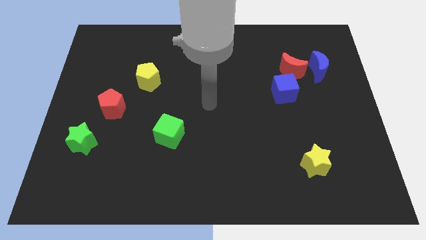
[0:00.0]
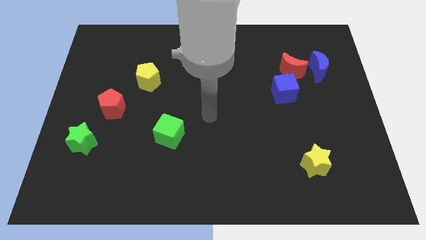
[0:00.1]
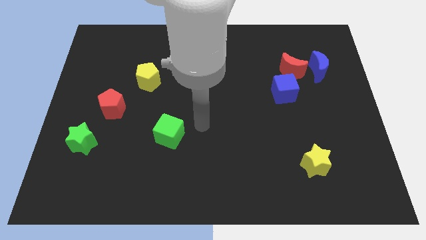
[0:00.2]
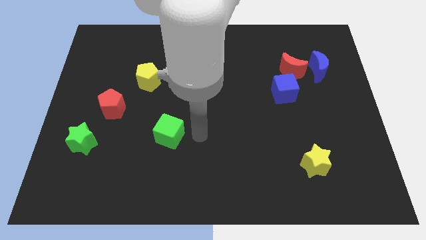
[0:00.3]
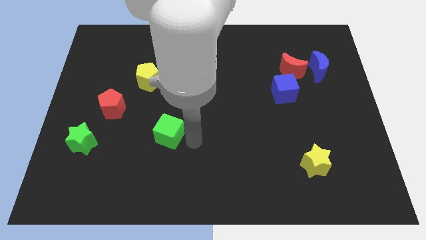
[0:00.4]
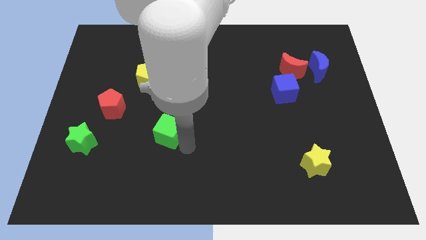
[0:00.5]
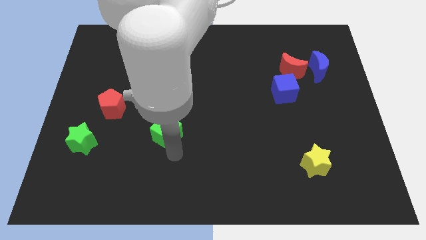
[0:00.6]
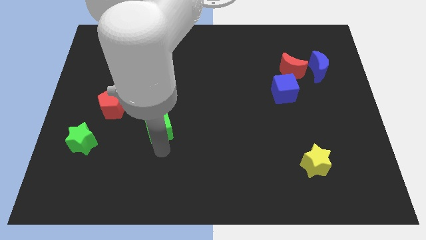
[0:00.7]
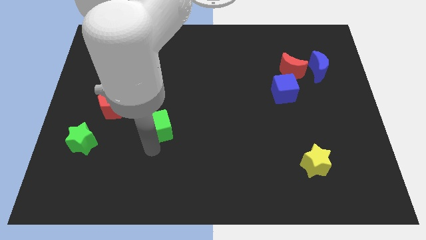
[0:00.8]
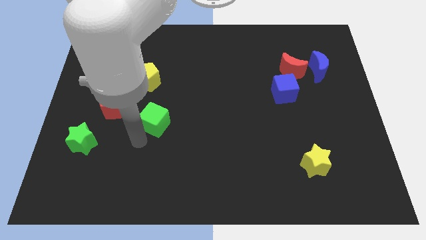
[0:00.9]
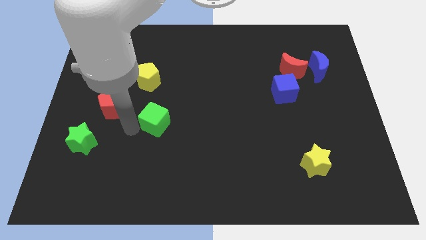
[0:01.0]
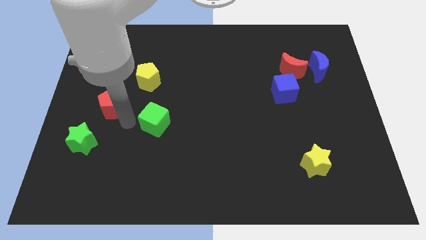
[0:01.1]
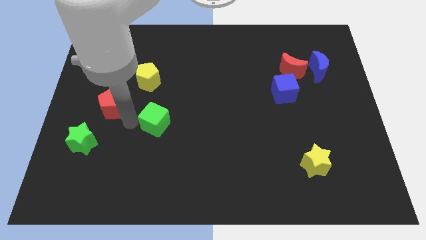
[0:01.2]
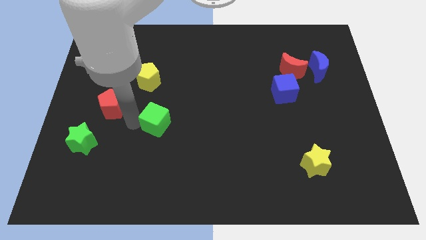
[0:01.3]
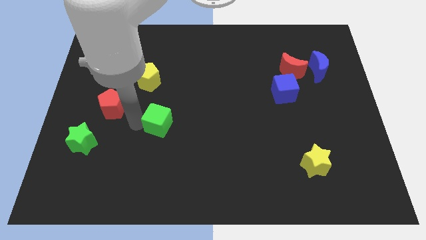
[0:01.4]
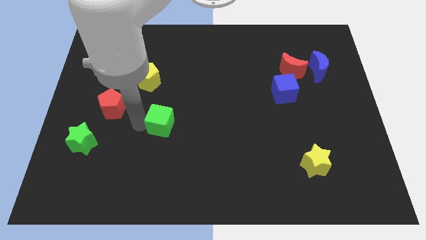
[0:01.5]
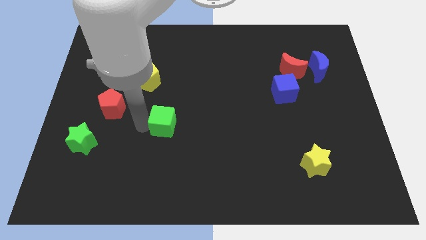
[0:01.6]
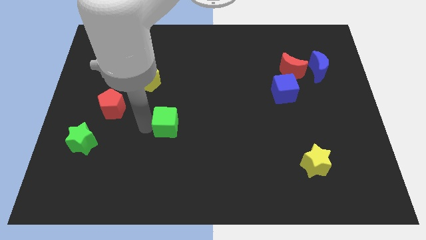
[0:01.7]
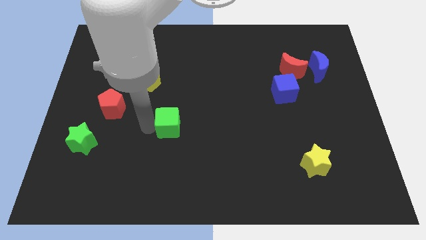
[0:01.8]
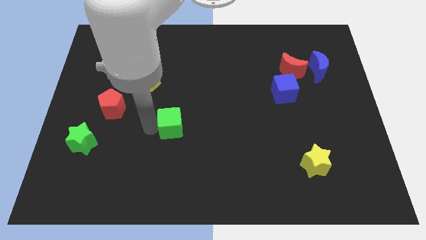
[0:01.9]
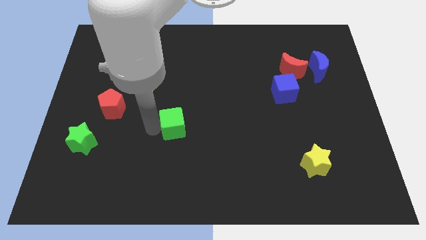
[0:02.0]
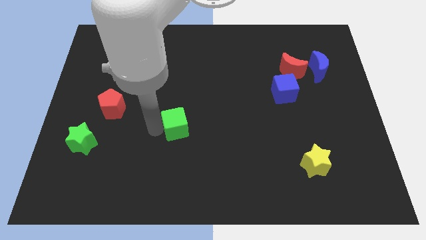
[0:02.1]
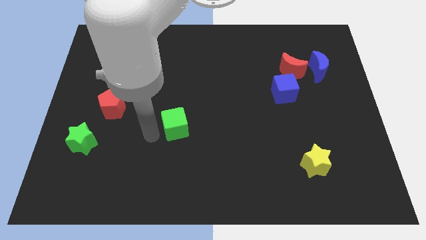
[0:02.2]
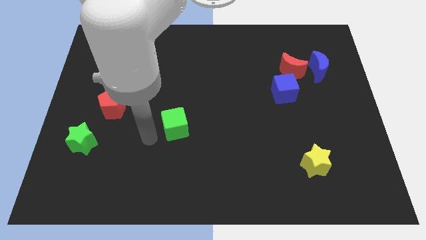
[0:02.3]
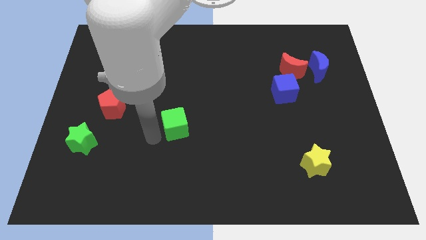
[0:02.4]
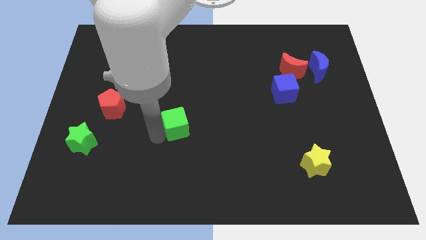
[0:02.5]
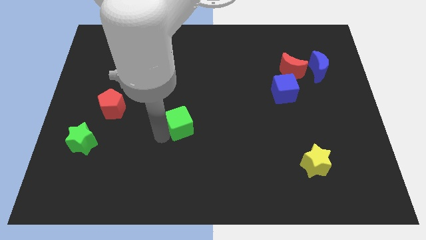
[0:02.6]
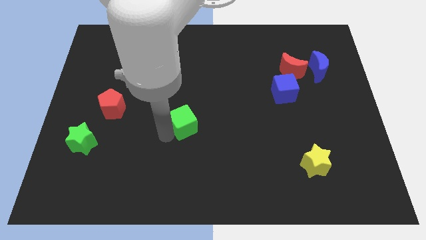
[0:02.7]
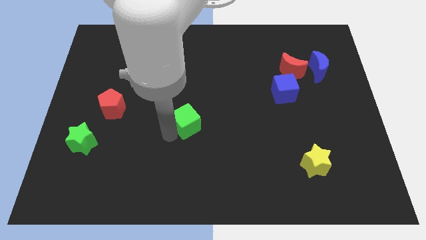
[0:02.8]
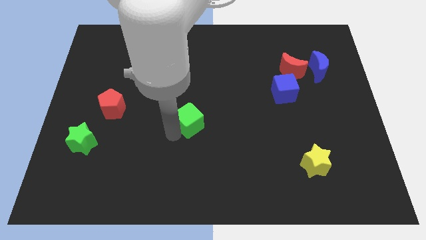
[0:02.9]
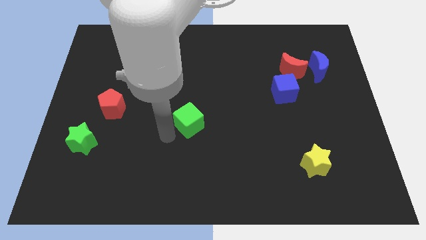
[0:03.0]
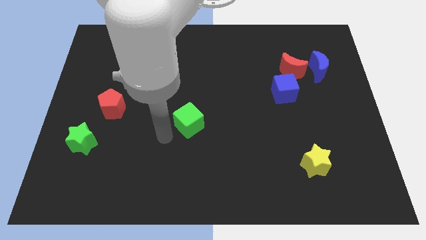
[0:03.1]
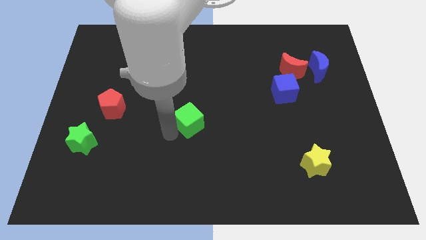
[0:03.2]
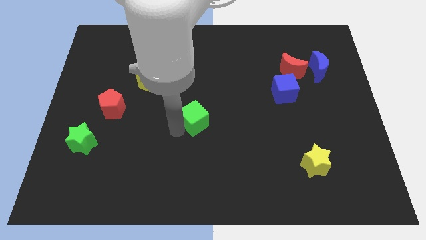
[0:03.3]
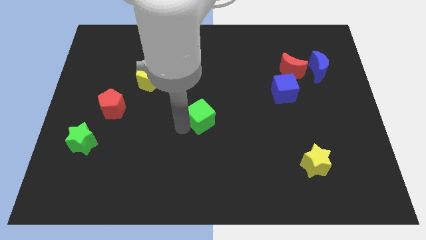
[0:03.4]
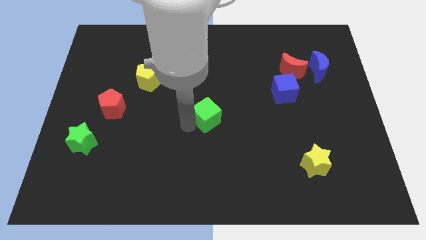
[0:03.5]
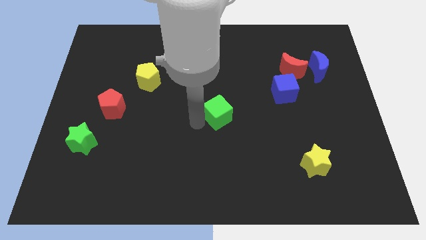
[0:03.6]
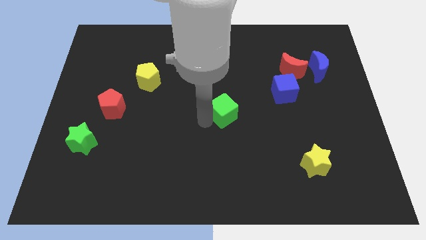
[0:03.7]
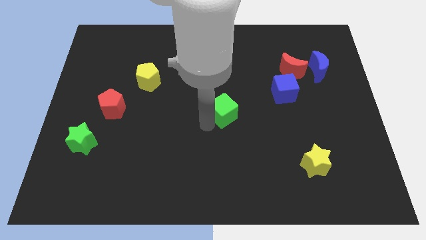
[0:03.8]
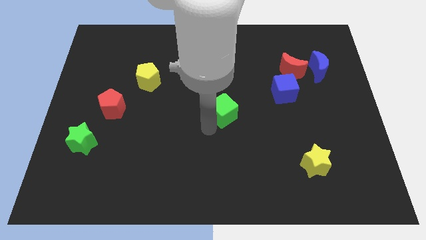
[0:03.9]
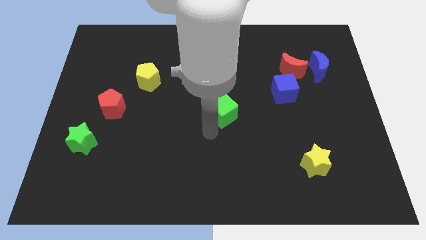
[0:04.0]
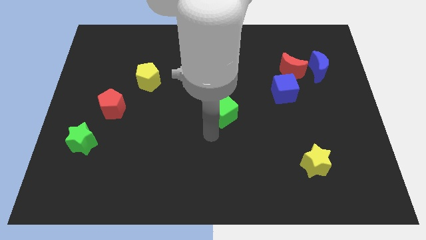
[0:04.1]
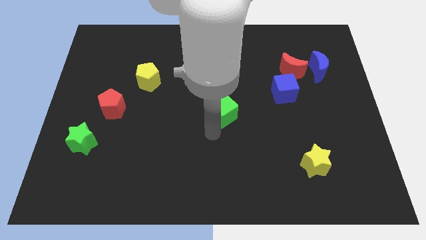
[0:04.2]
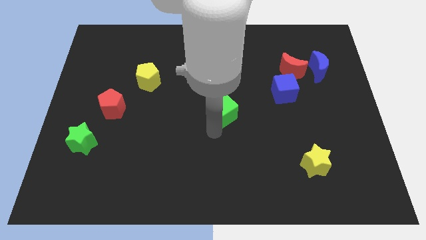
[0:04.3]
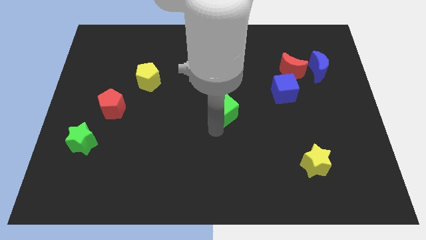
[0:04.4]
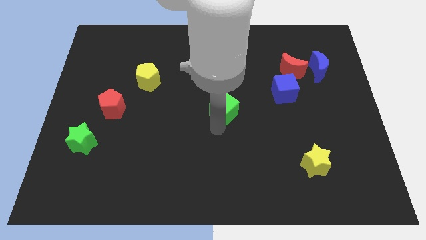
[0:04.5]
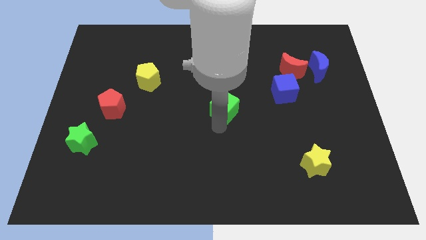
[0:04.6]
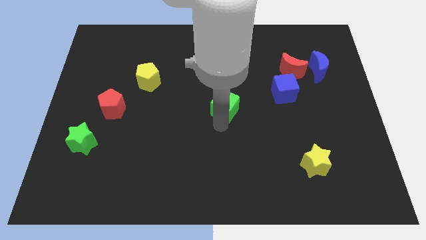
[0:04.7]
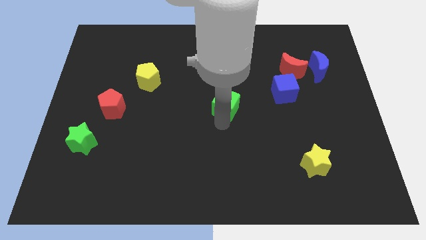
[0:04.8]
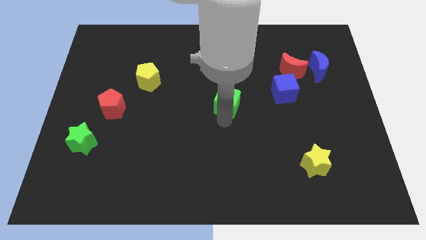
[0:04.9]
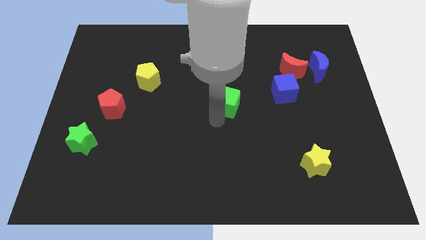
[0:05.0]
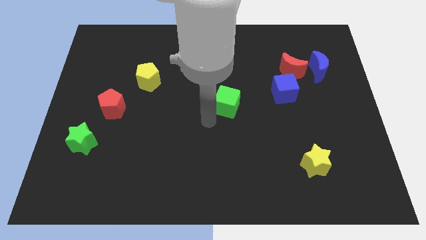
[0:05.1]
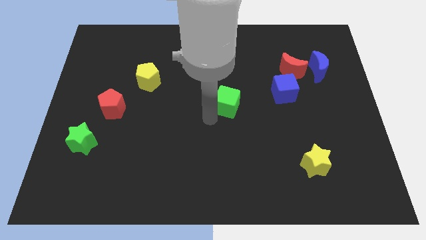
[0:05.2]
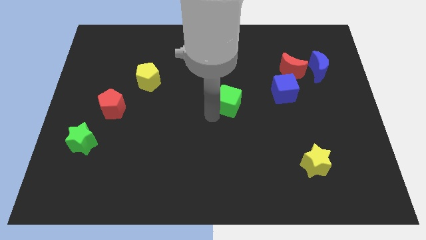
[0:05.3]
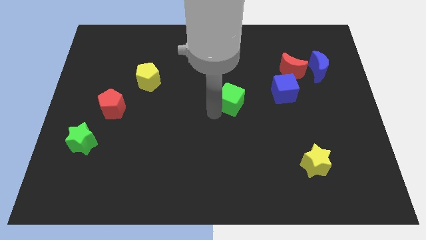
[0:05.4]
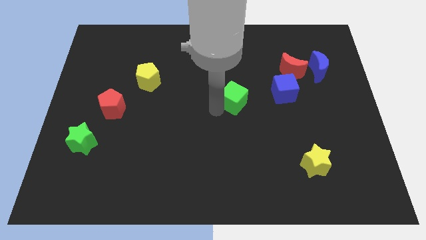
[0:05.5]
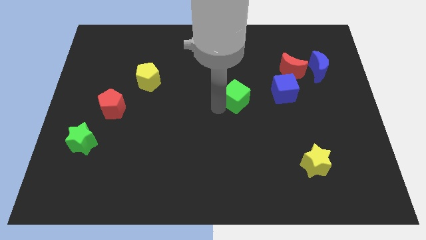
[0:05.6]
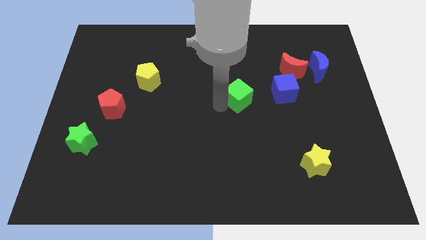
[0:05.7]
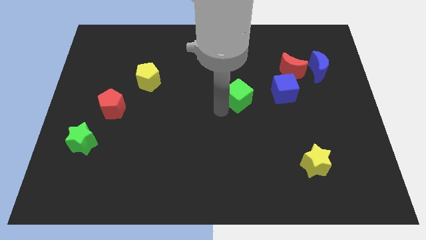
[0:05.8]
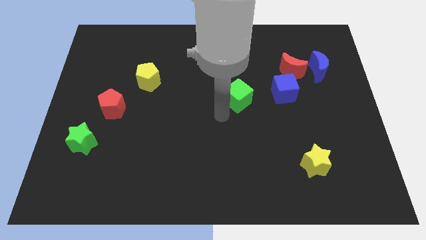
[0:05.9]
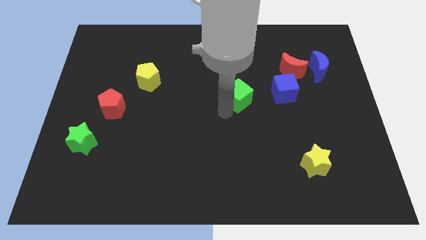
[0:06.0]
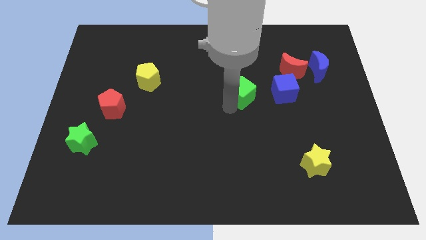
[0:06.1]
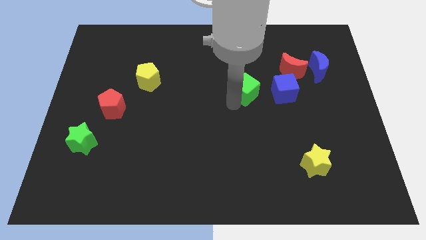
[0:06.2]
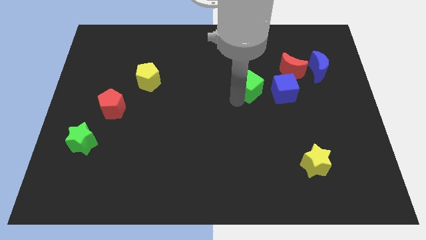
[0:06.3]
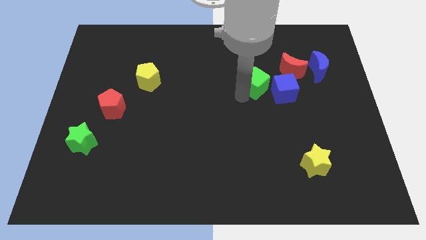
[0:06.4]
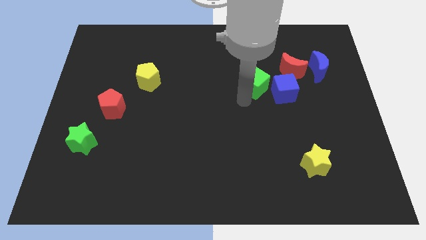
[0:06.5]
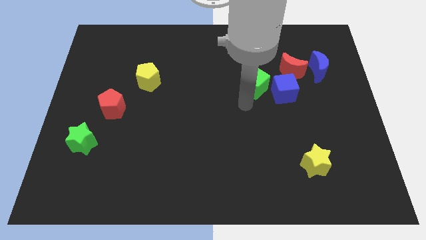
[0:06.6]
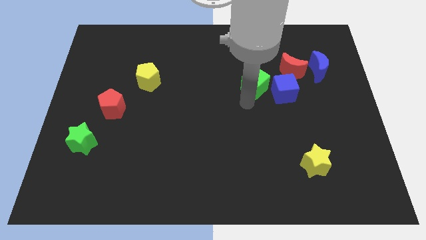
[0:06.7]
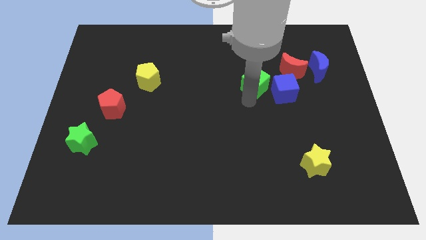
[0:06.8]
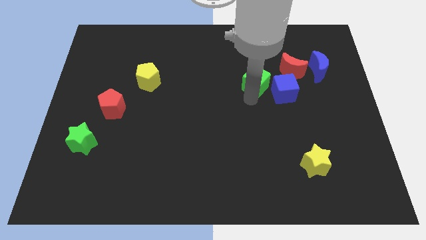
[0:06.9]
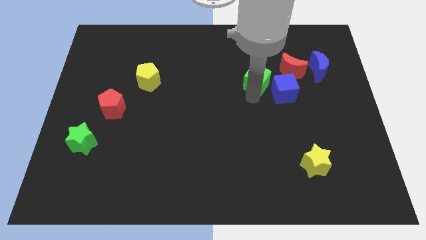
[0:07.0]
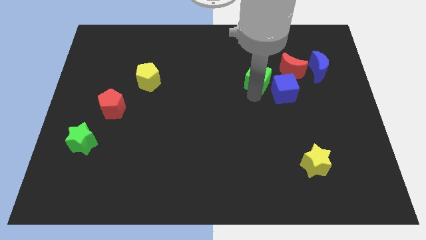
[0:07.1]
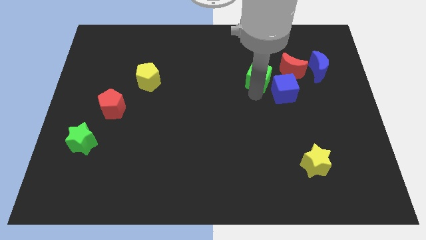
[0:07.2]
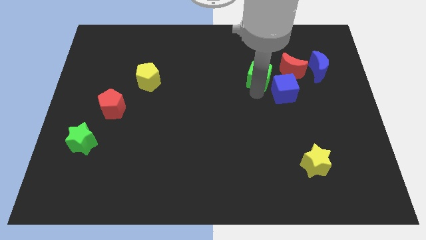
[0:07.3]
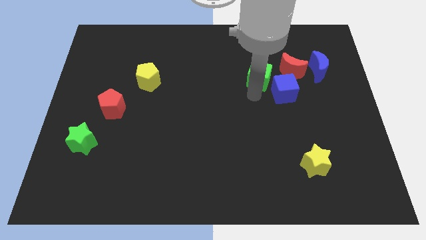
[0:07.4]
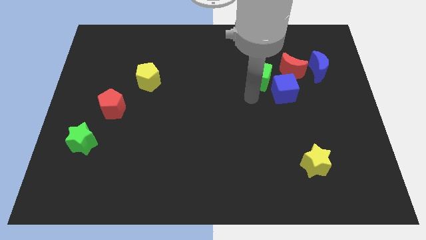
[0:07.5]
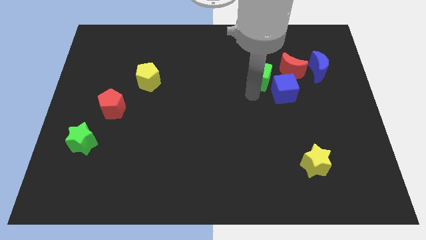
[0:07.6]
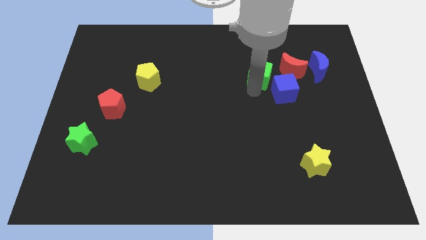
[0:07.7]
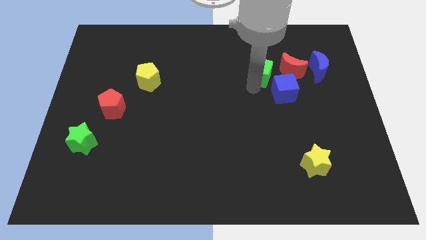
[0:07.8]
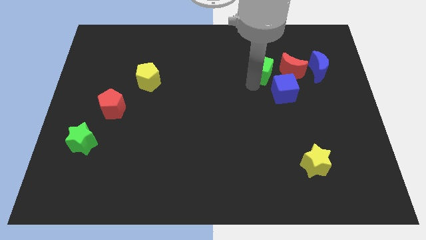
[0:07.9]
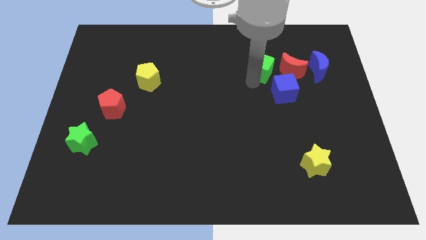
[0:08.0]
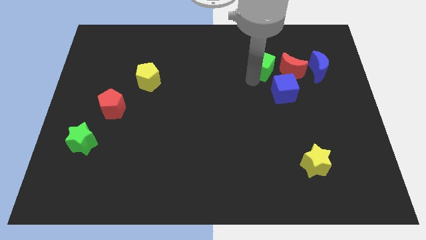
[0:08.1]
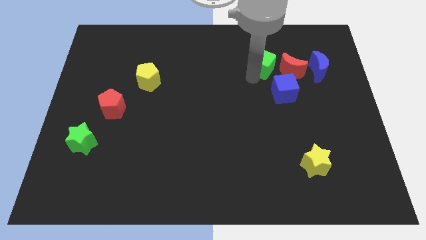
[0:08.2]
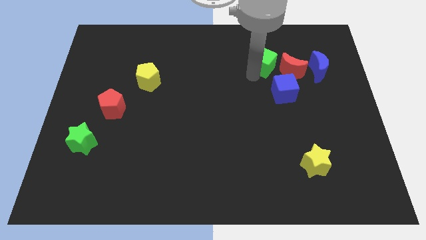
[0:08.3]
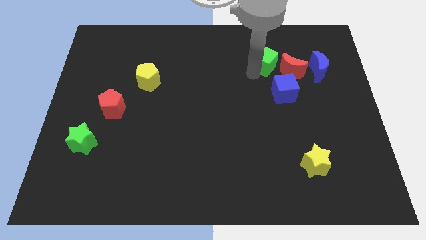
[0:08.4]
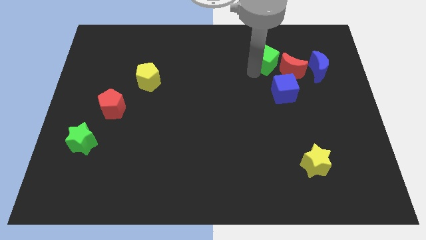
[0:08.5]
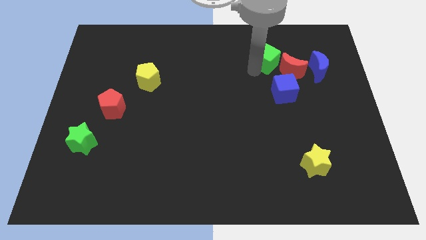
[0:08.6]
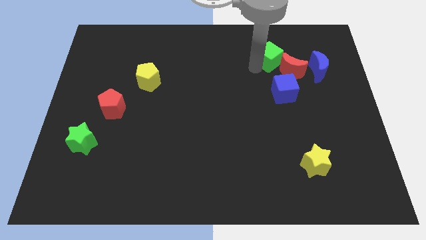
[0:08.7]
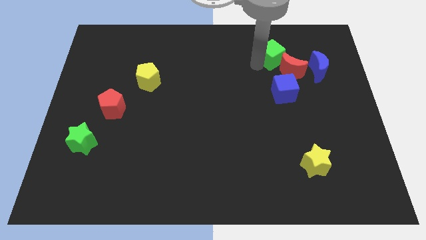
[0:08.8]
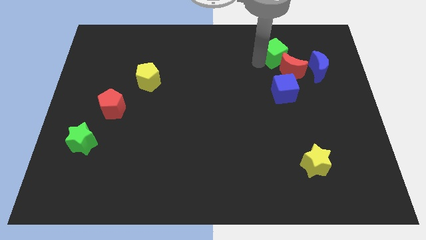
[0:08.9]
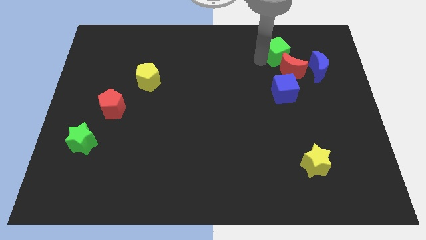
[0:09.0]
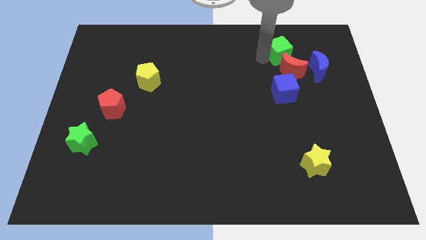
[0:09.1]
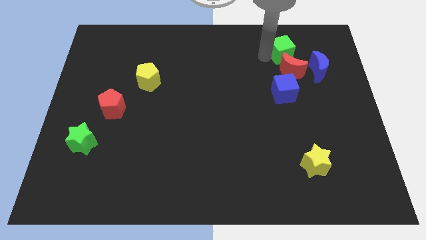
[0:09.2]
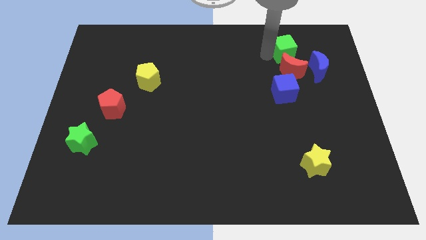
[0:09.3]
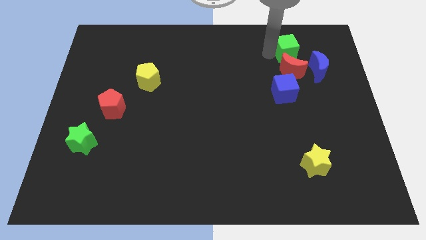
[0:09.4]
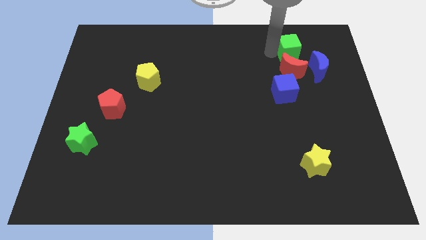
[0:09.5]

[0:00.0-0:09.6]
put the green cube diagonally up and to the right of the red moon
